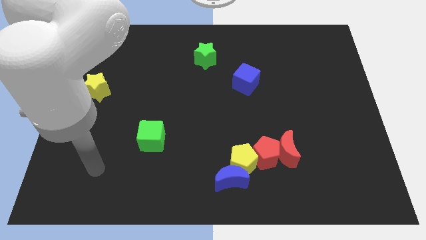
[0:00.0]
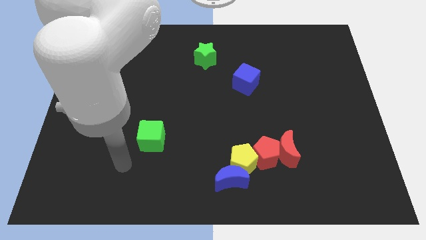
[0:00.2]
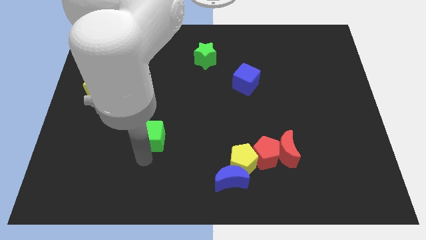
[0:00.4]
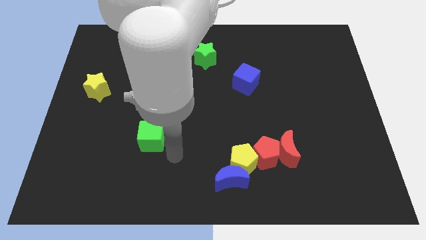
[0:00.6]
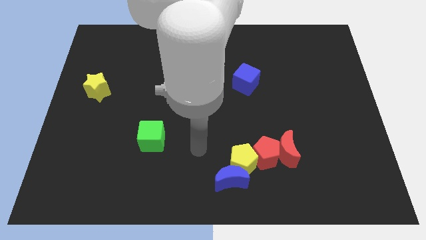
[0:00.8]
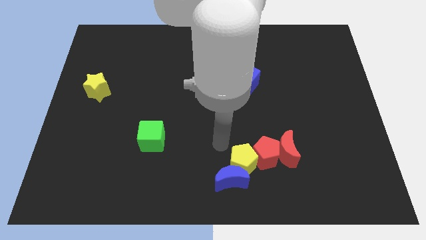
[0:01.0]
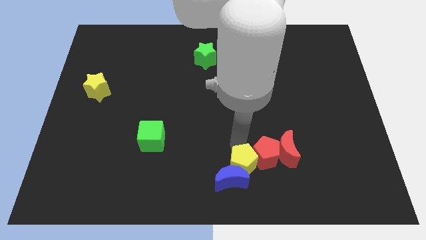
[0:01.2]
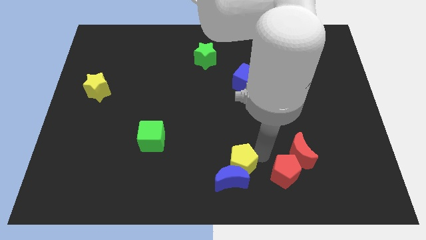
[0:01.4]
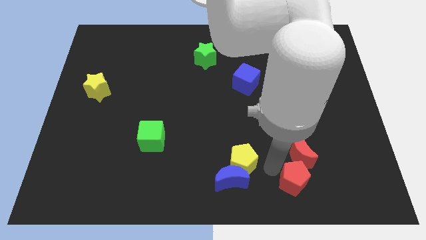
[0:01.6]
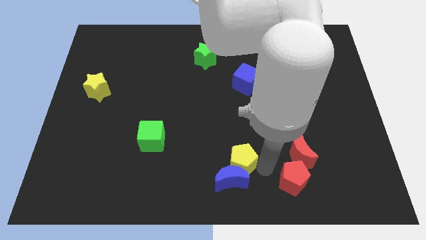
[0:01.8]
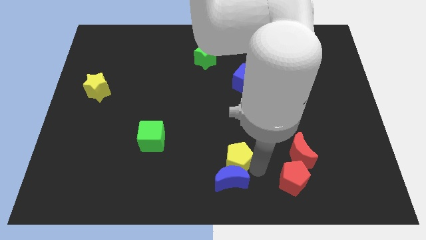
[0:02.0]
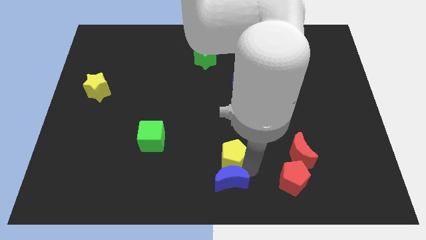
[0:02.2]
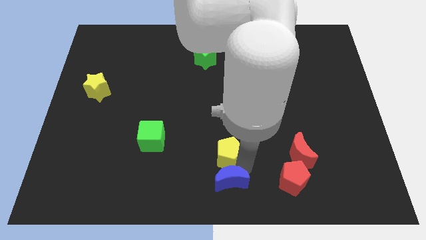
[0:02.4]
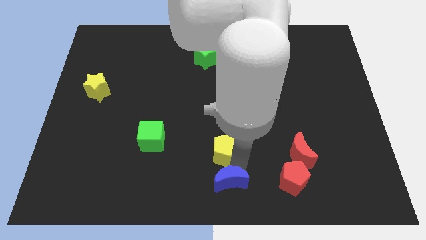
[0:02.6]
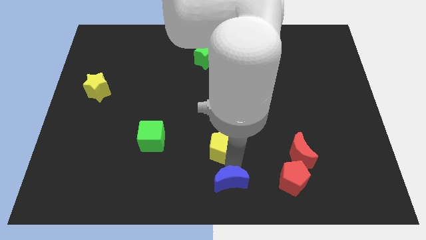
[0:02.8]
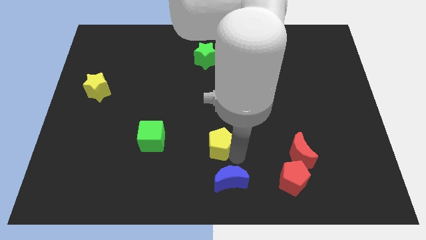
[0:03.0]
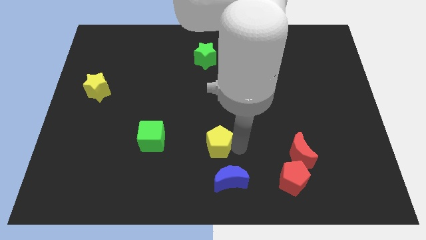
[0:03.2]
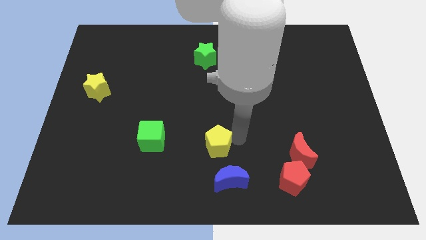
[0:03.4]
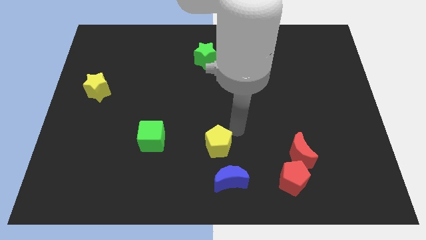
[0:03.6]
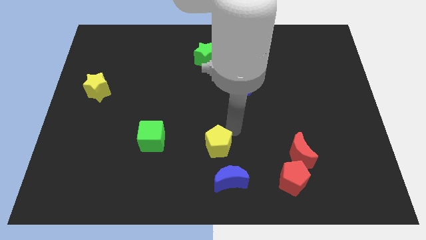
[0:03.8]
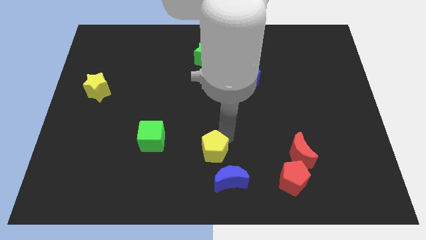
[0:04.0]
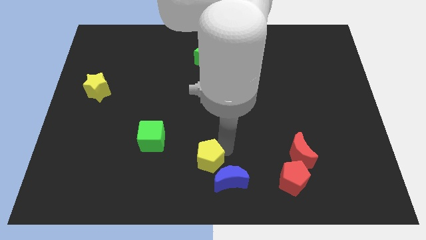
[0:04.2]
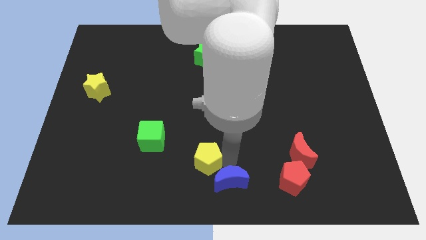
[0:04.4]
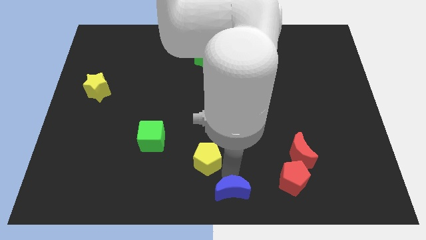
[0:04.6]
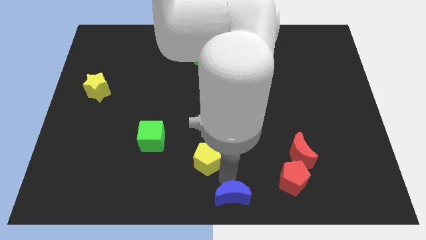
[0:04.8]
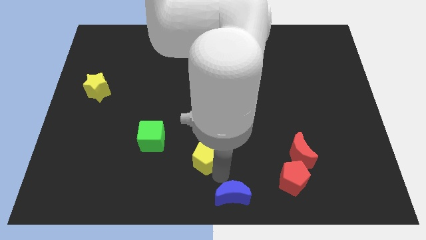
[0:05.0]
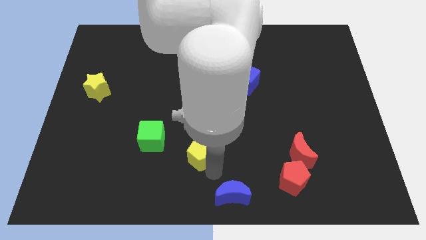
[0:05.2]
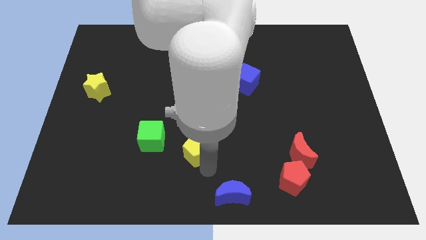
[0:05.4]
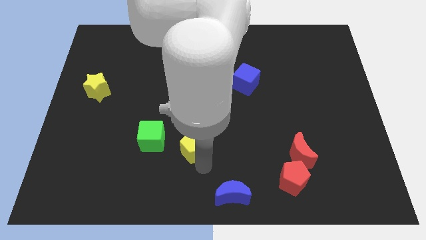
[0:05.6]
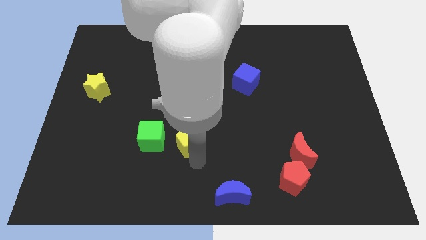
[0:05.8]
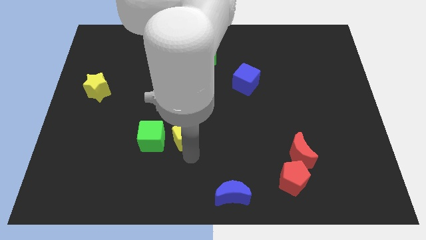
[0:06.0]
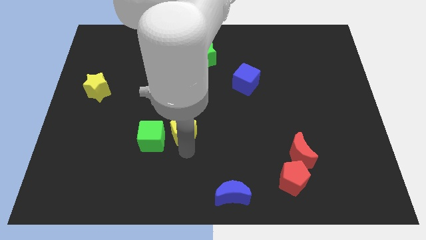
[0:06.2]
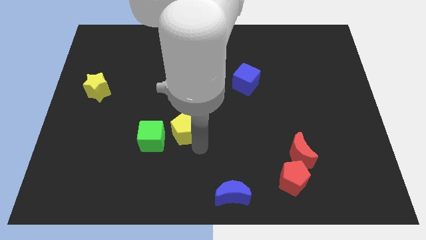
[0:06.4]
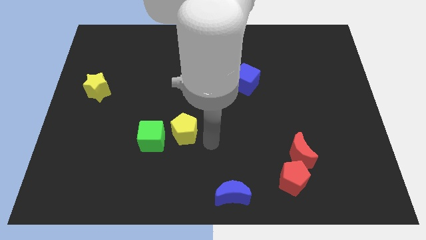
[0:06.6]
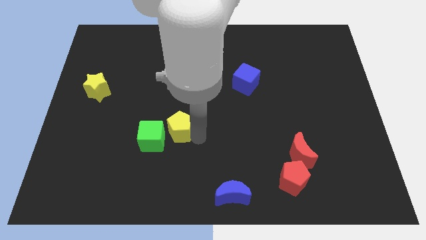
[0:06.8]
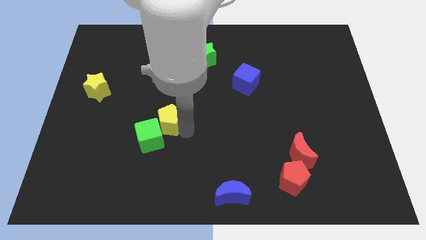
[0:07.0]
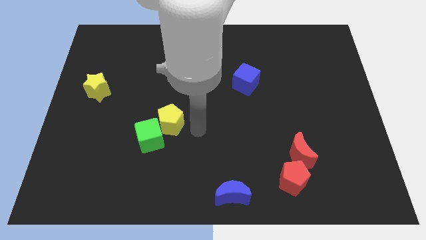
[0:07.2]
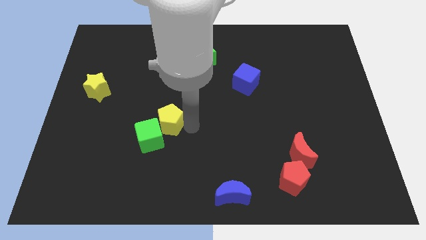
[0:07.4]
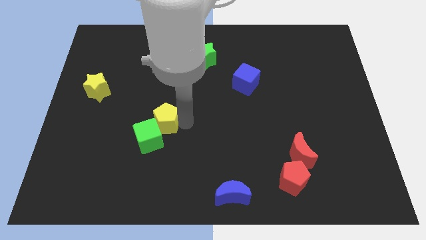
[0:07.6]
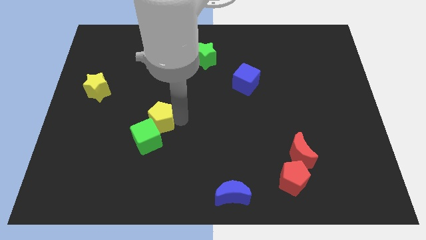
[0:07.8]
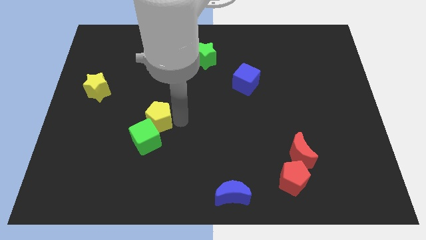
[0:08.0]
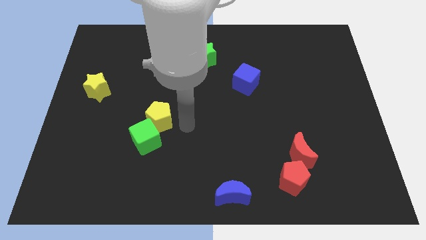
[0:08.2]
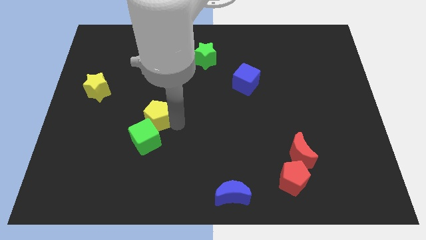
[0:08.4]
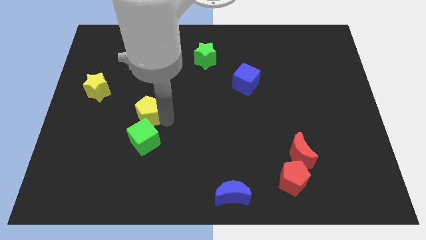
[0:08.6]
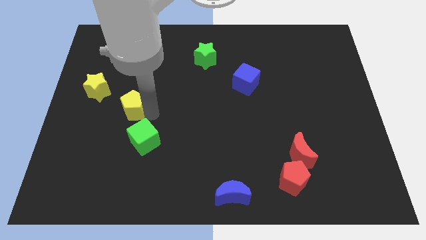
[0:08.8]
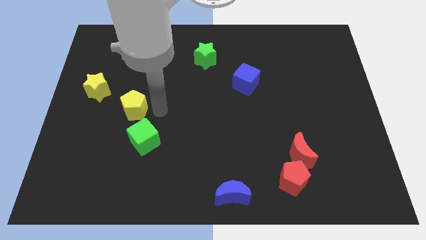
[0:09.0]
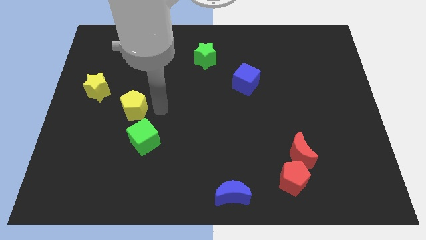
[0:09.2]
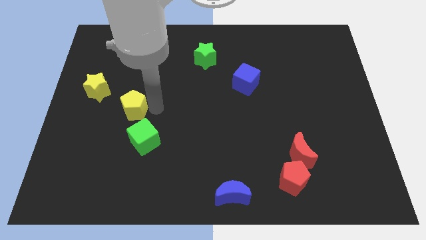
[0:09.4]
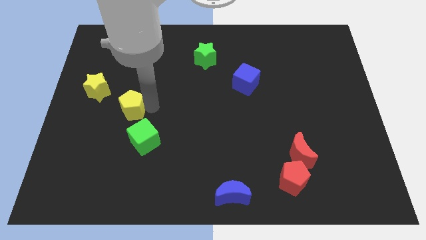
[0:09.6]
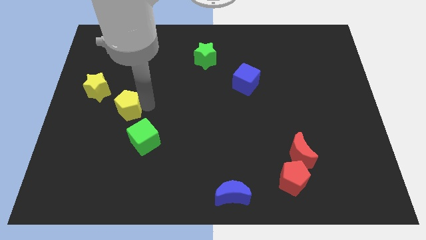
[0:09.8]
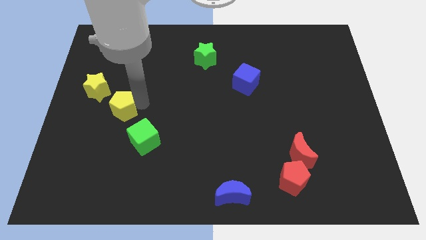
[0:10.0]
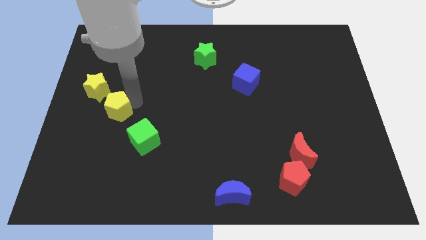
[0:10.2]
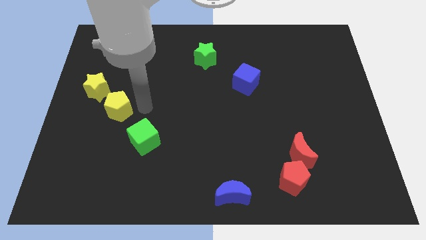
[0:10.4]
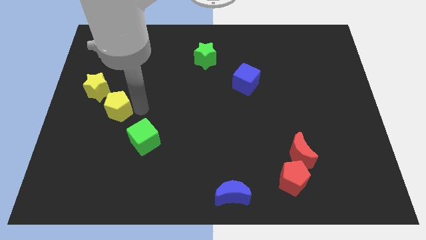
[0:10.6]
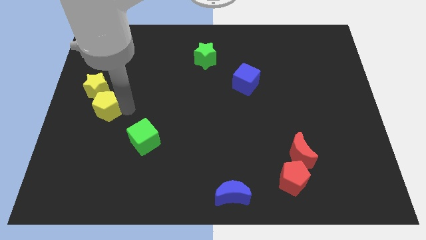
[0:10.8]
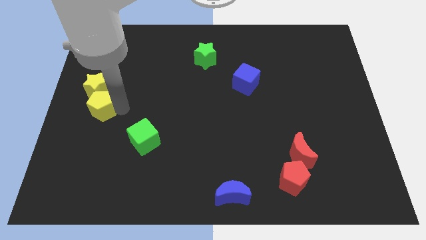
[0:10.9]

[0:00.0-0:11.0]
push the yellow pentagon to the left side of the board

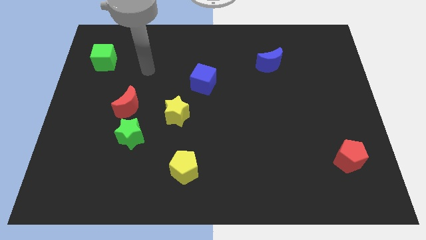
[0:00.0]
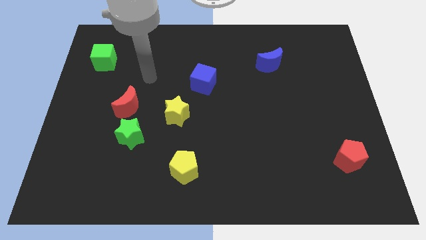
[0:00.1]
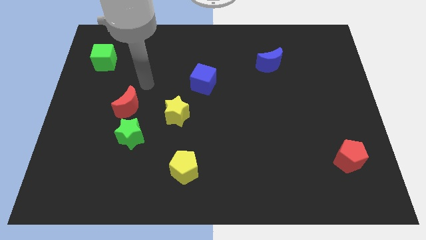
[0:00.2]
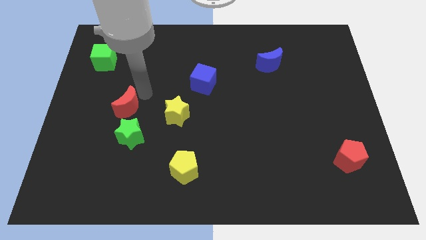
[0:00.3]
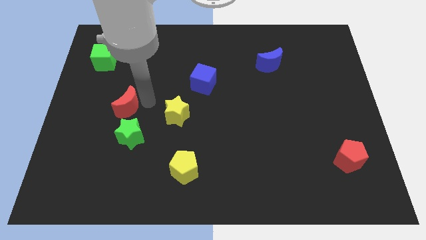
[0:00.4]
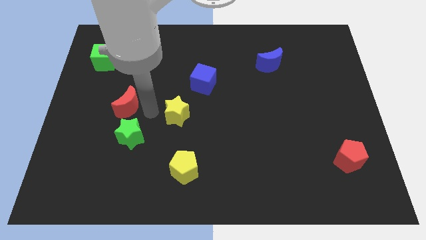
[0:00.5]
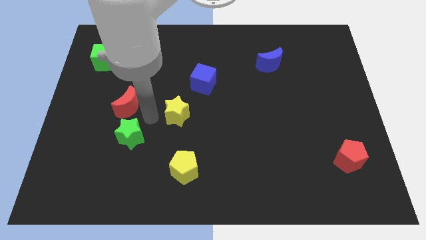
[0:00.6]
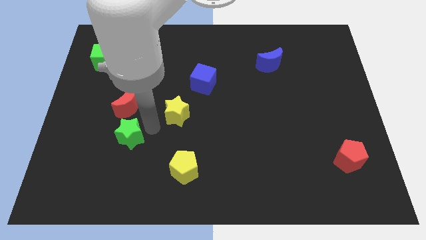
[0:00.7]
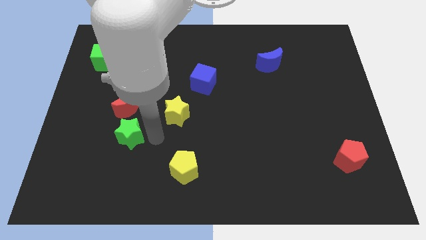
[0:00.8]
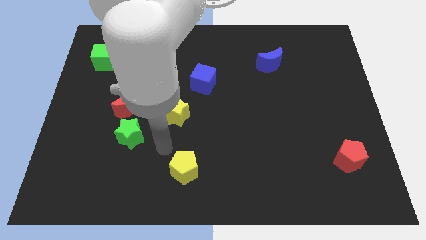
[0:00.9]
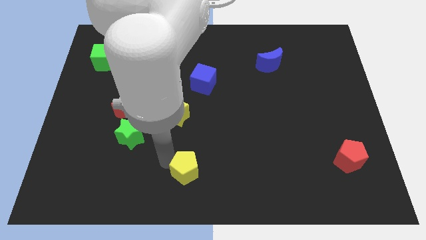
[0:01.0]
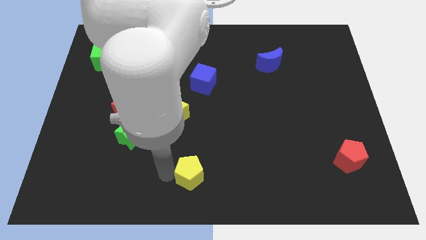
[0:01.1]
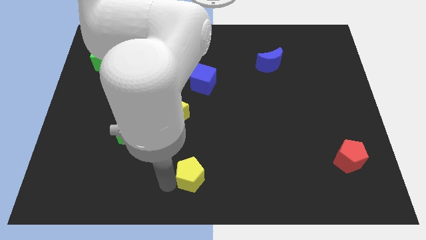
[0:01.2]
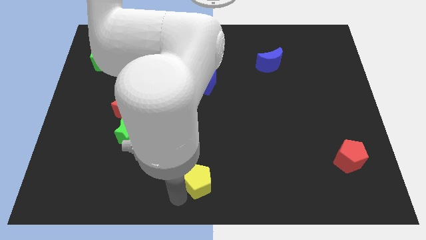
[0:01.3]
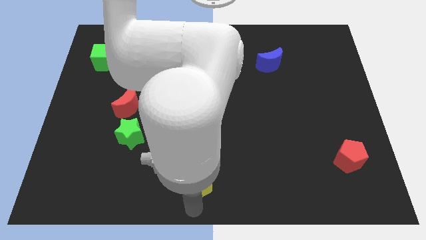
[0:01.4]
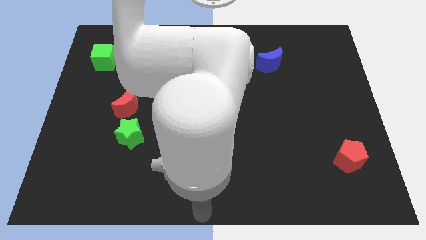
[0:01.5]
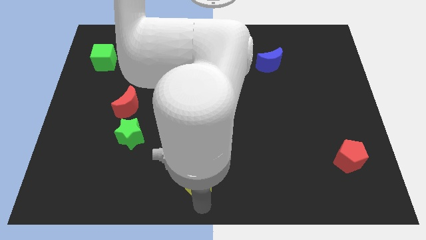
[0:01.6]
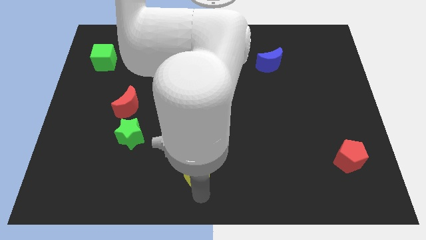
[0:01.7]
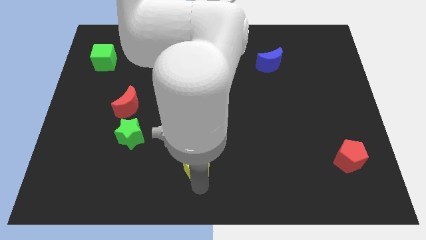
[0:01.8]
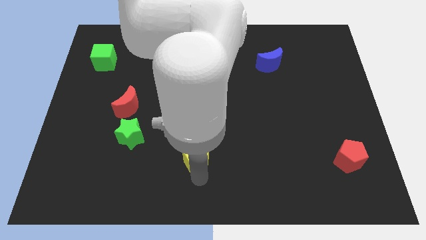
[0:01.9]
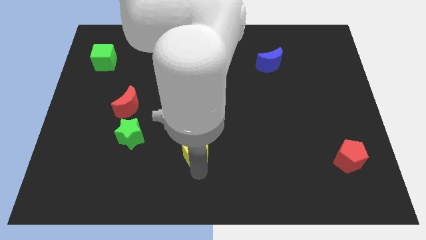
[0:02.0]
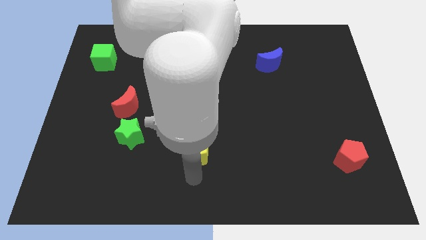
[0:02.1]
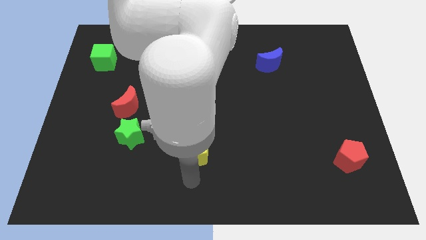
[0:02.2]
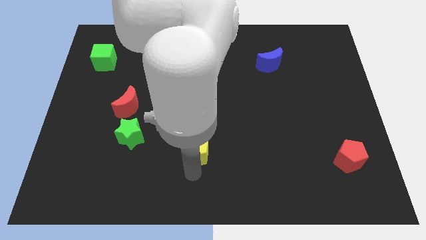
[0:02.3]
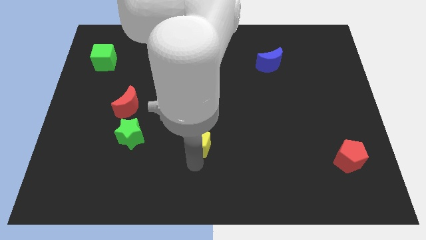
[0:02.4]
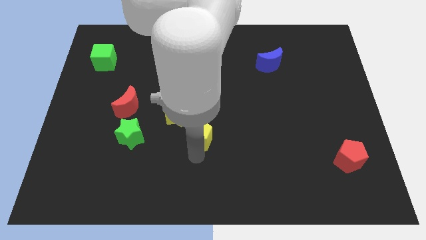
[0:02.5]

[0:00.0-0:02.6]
push the yellow pentagon to the center of the board
